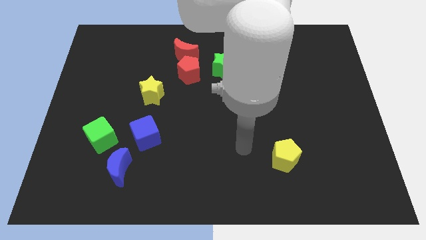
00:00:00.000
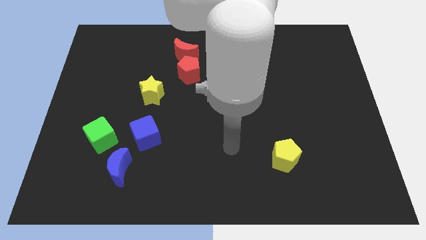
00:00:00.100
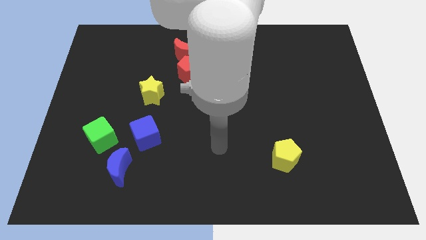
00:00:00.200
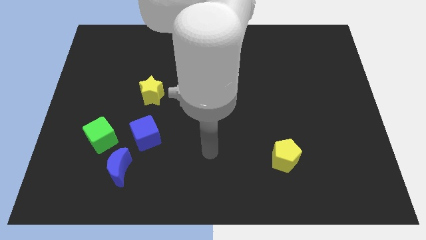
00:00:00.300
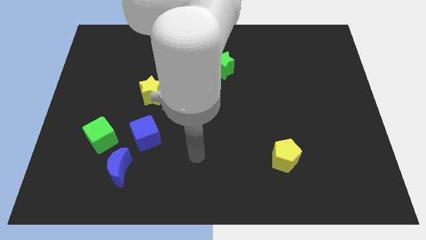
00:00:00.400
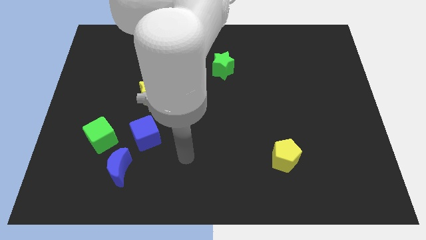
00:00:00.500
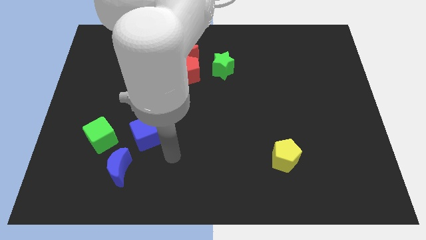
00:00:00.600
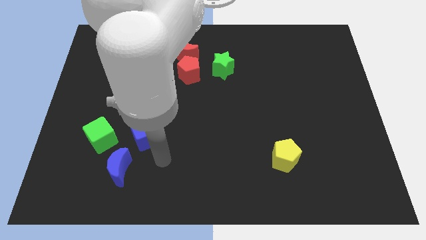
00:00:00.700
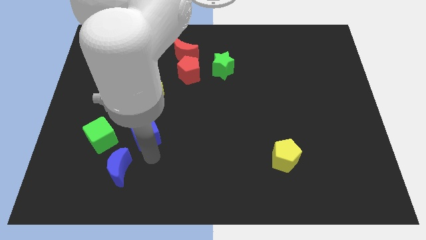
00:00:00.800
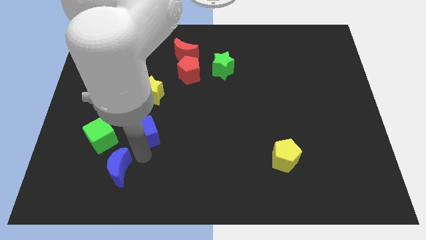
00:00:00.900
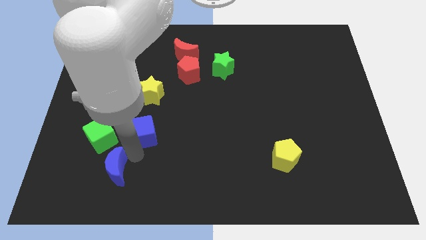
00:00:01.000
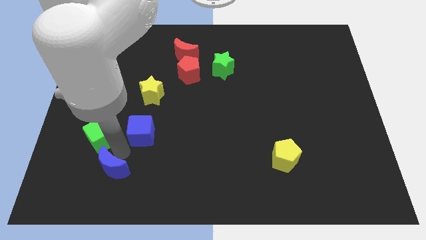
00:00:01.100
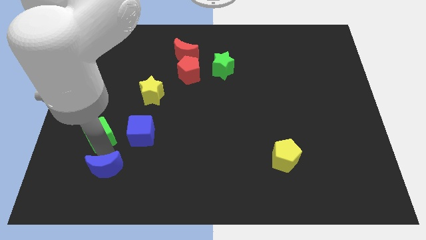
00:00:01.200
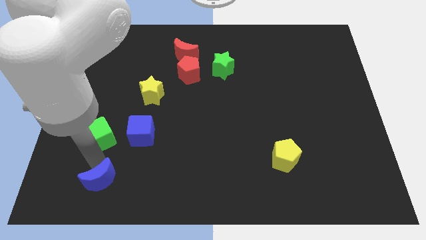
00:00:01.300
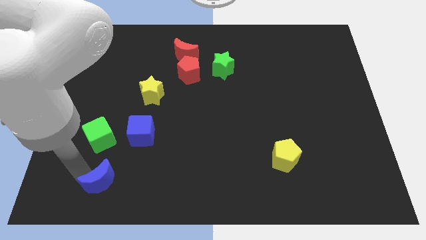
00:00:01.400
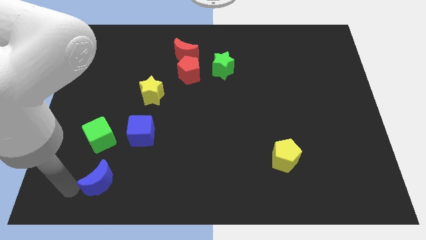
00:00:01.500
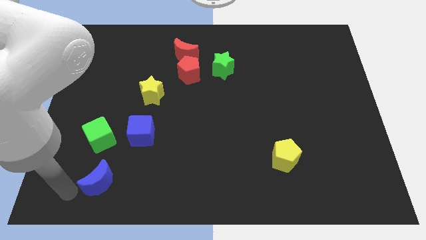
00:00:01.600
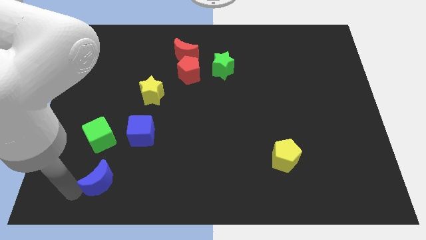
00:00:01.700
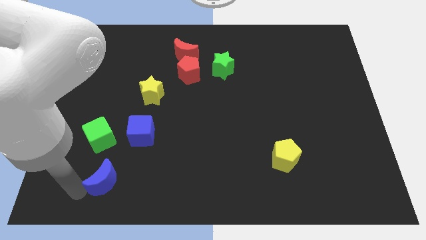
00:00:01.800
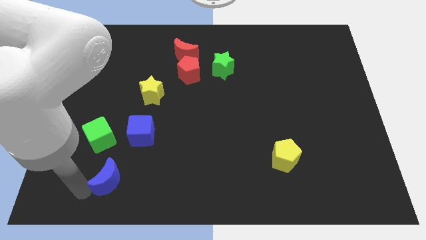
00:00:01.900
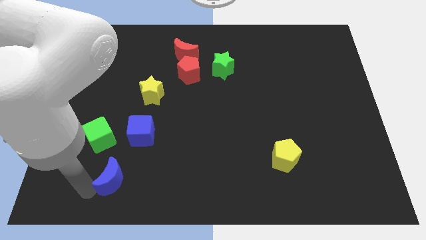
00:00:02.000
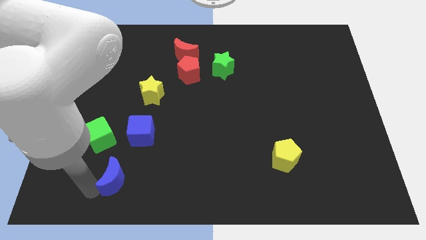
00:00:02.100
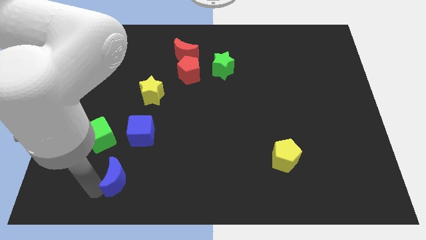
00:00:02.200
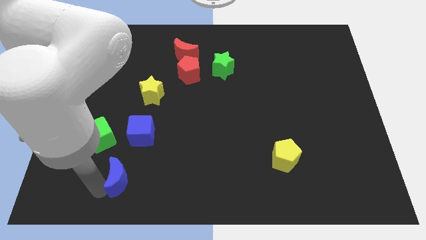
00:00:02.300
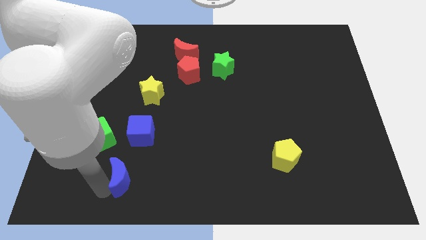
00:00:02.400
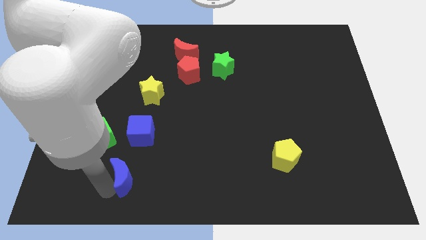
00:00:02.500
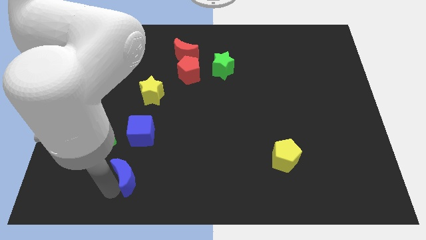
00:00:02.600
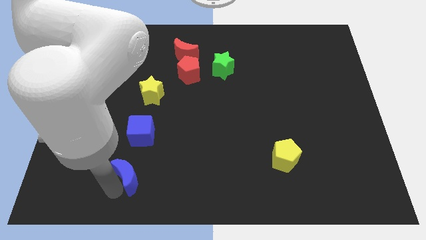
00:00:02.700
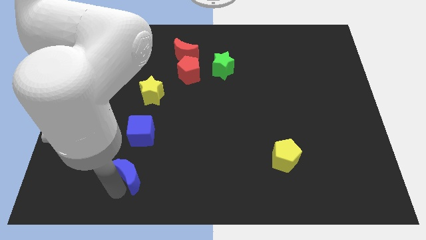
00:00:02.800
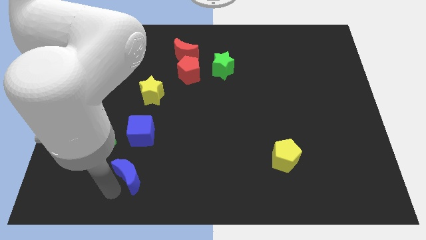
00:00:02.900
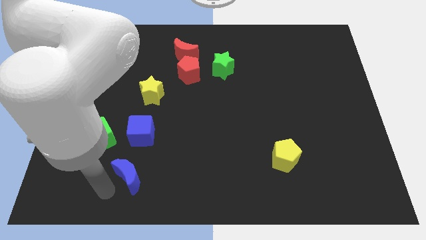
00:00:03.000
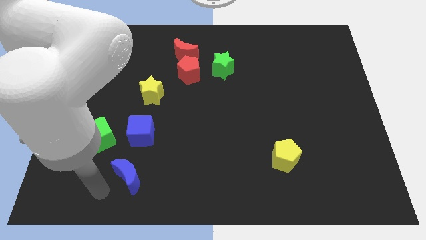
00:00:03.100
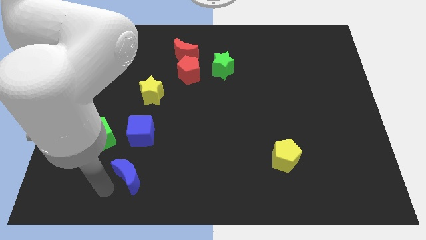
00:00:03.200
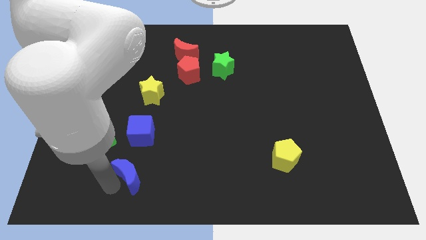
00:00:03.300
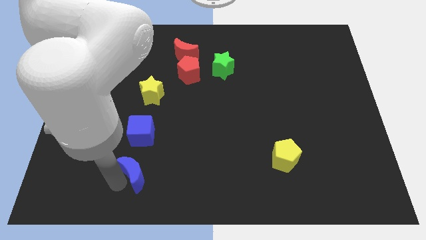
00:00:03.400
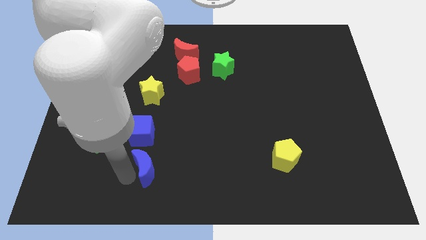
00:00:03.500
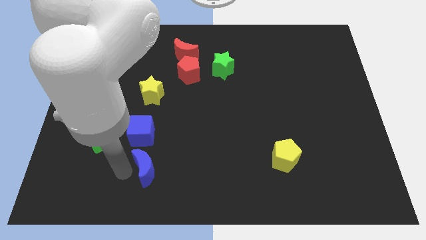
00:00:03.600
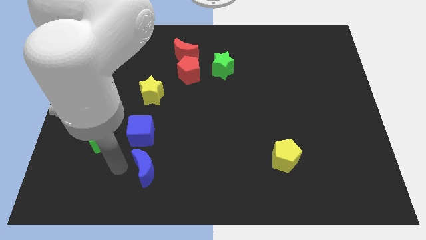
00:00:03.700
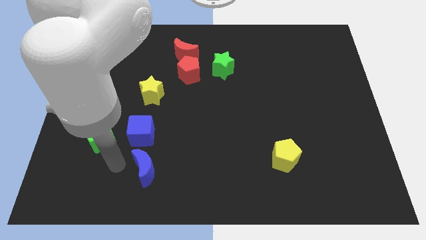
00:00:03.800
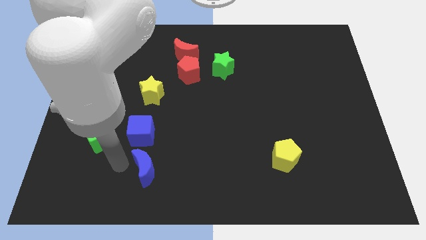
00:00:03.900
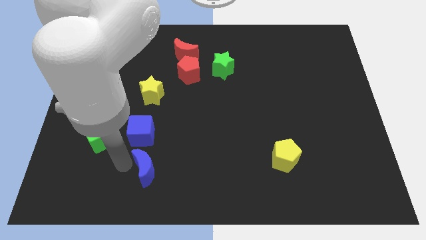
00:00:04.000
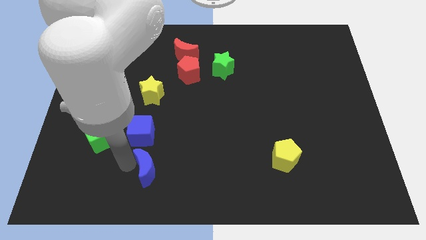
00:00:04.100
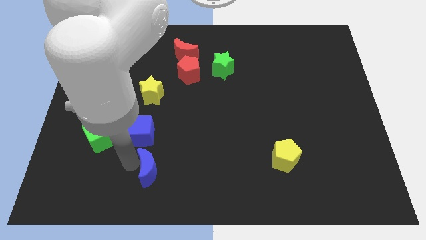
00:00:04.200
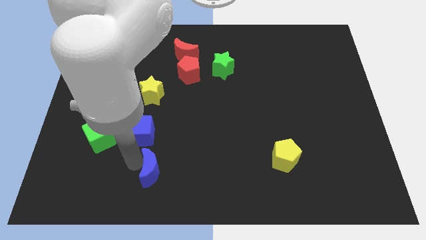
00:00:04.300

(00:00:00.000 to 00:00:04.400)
move the blue moon slightly to the right

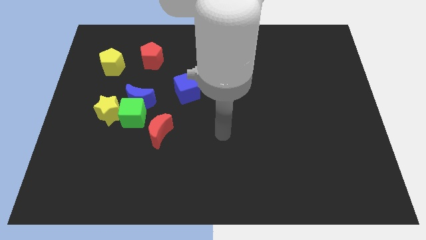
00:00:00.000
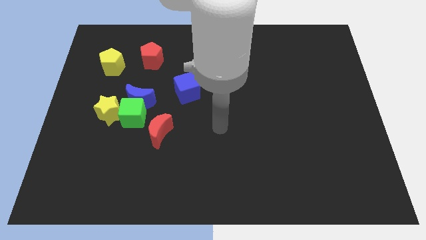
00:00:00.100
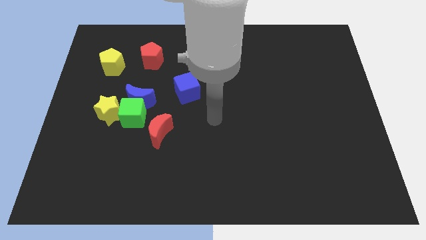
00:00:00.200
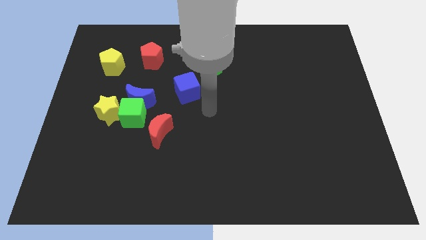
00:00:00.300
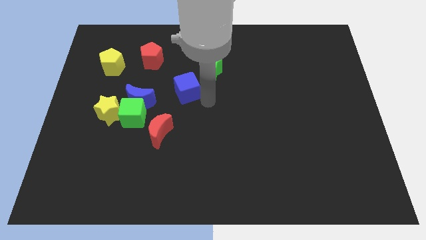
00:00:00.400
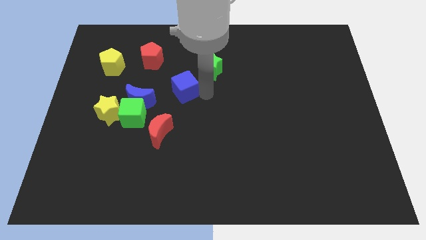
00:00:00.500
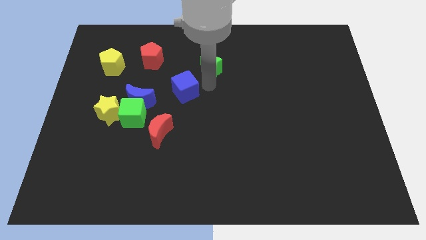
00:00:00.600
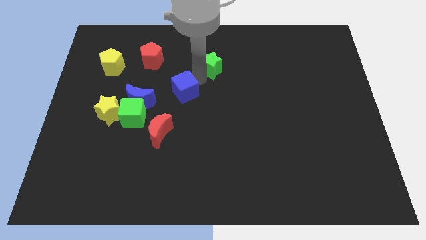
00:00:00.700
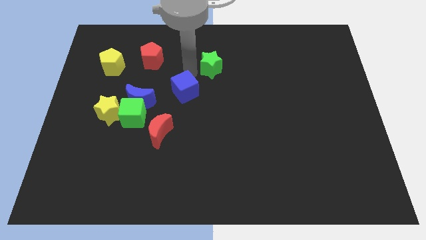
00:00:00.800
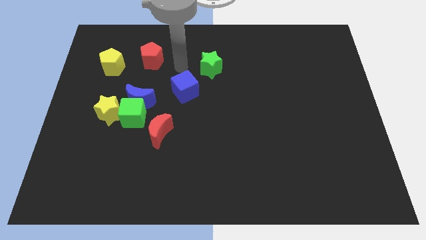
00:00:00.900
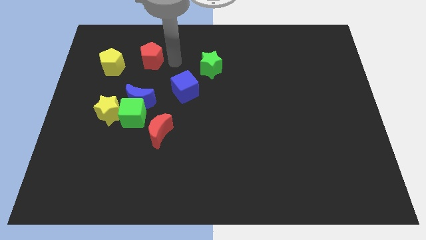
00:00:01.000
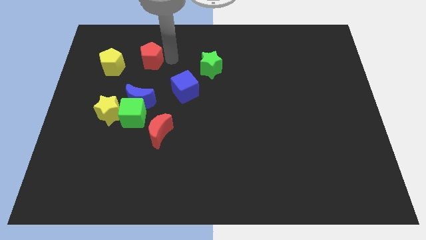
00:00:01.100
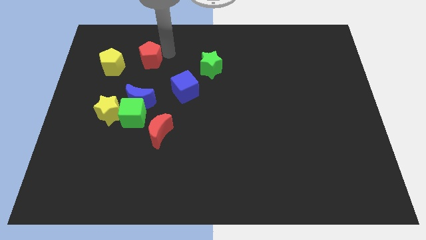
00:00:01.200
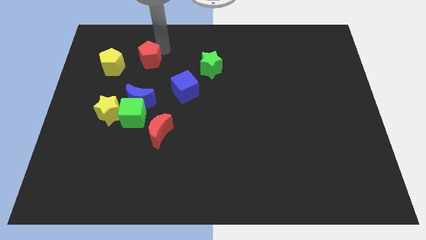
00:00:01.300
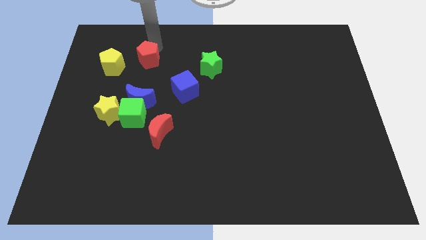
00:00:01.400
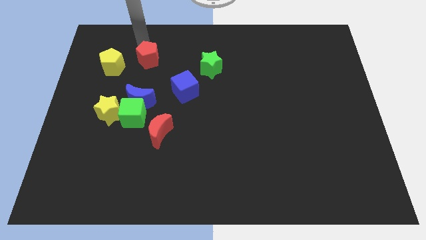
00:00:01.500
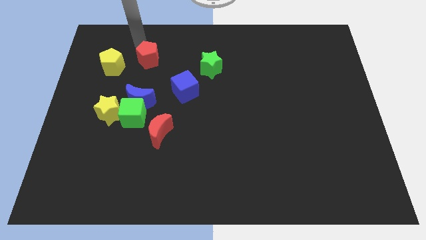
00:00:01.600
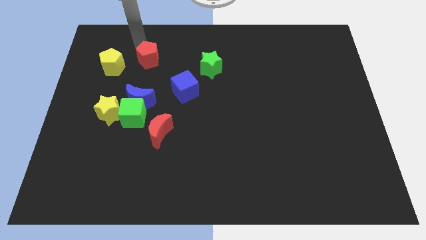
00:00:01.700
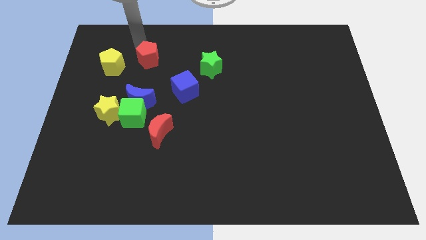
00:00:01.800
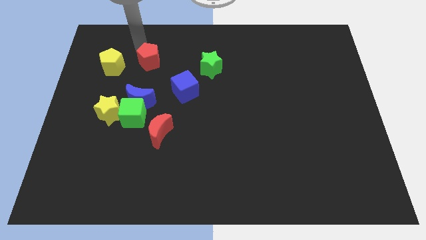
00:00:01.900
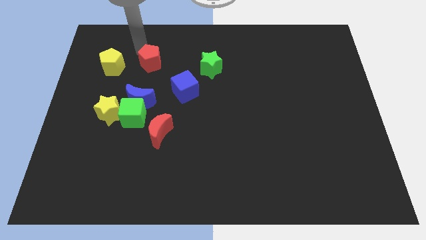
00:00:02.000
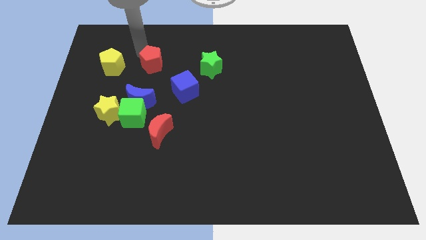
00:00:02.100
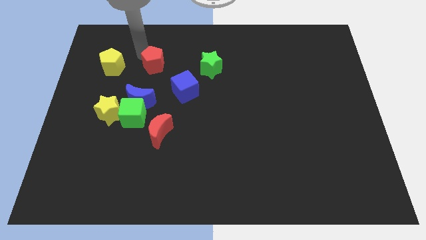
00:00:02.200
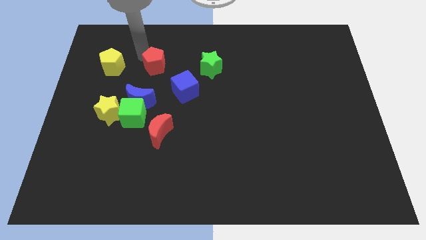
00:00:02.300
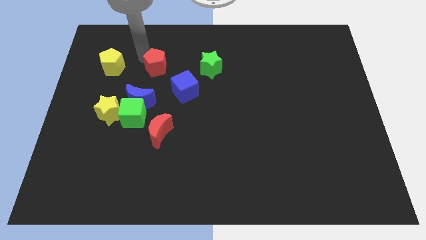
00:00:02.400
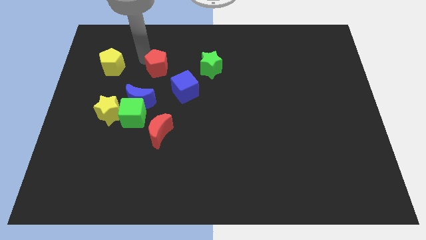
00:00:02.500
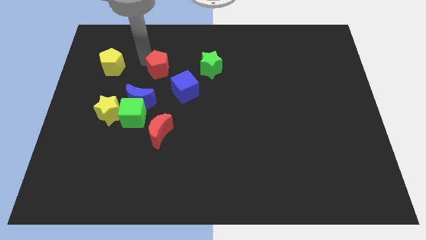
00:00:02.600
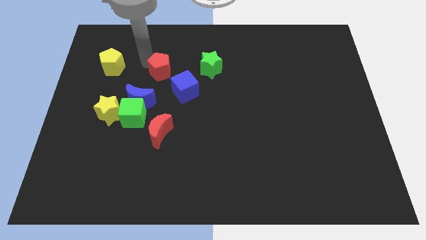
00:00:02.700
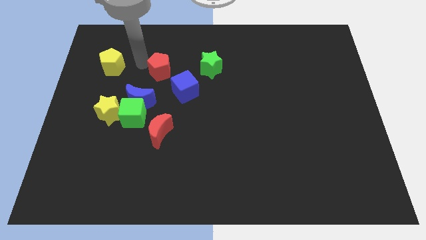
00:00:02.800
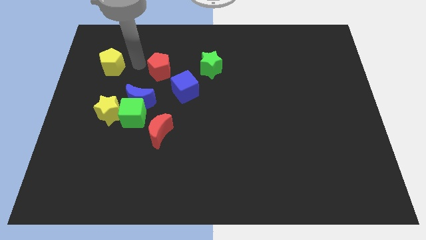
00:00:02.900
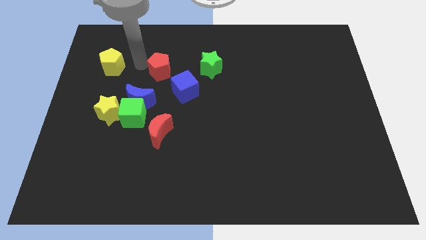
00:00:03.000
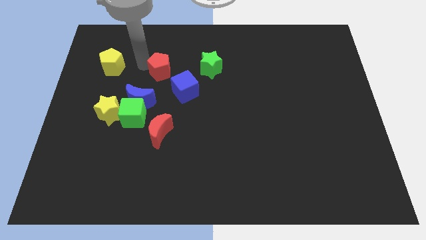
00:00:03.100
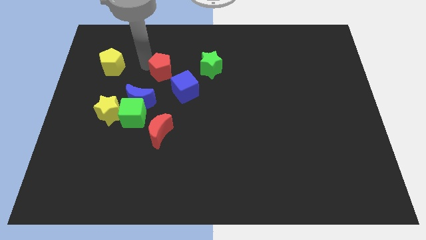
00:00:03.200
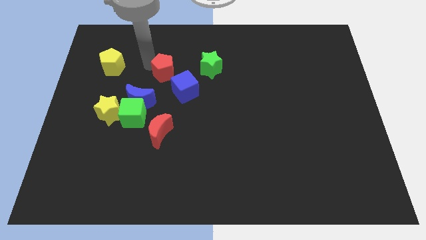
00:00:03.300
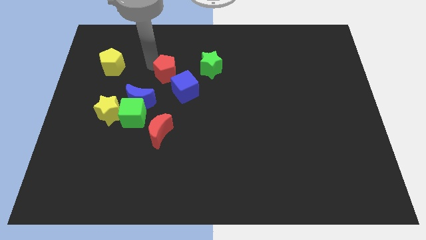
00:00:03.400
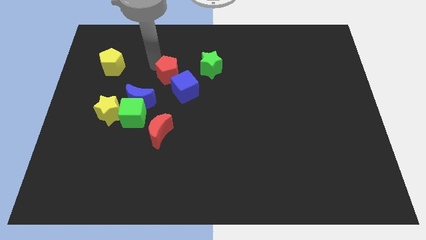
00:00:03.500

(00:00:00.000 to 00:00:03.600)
move the red pentagon slightly down and then to the right
